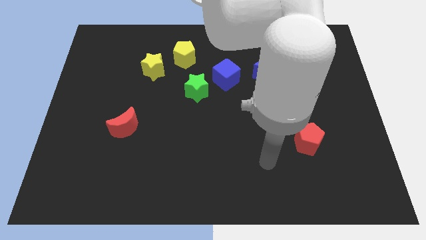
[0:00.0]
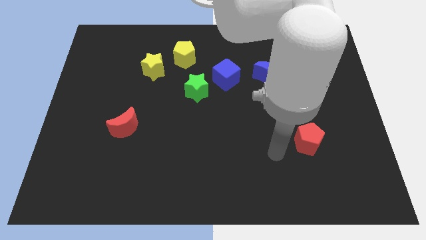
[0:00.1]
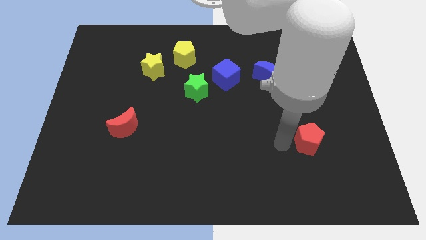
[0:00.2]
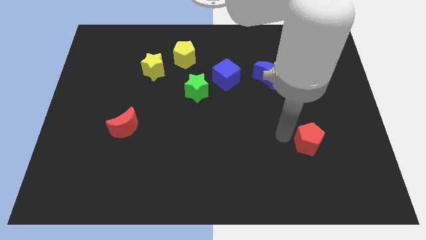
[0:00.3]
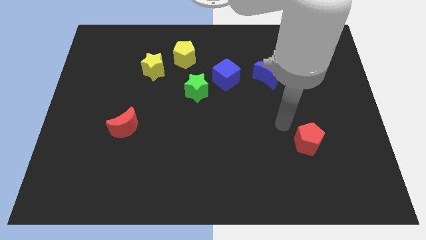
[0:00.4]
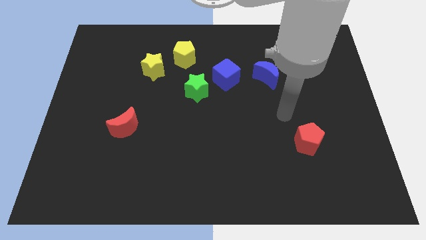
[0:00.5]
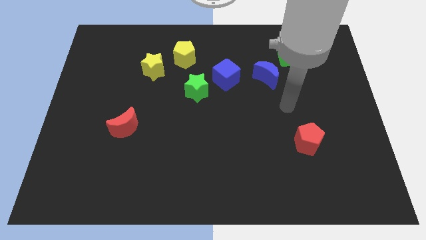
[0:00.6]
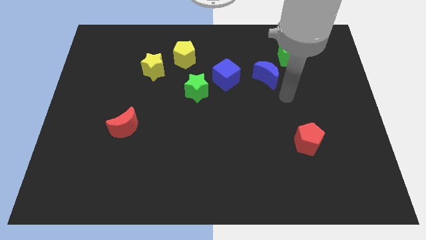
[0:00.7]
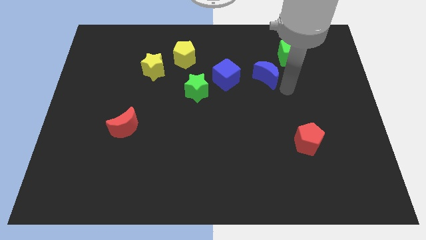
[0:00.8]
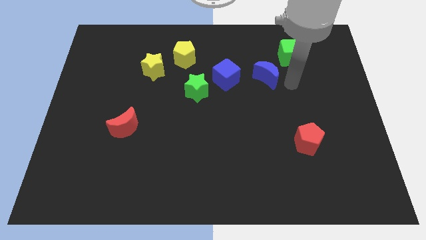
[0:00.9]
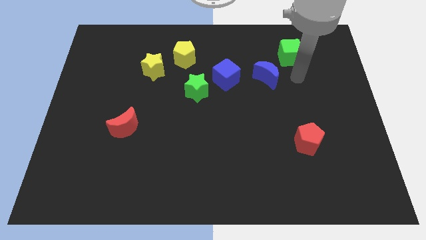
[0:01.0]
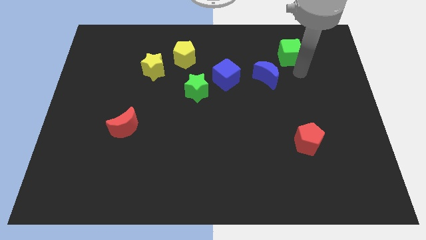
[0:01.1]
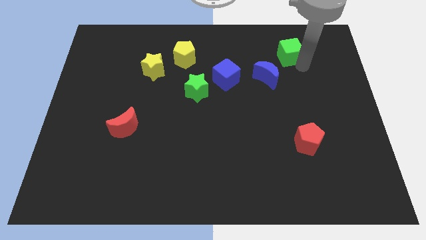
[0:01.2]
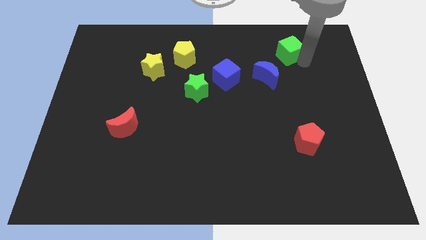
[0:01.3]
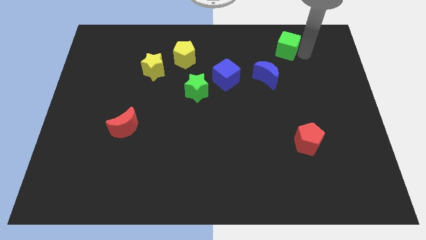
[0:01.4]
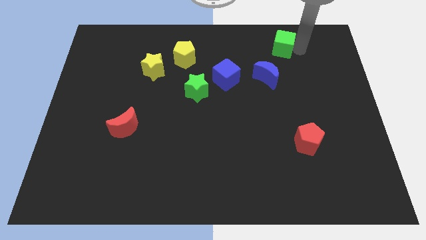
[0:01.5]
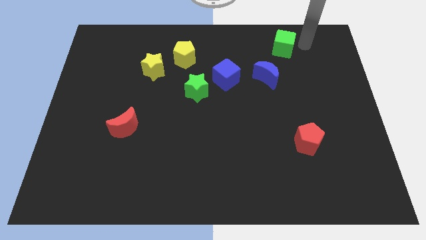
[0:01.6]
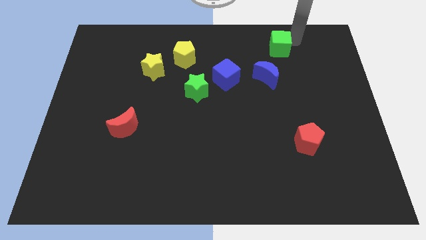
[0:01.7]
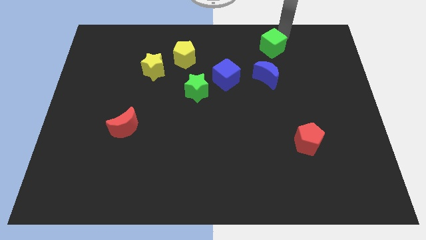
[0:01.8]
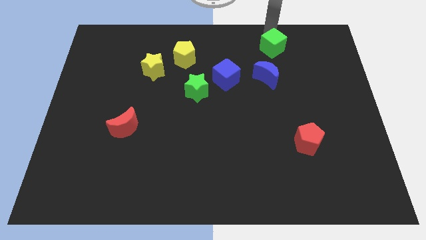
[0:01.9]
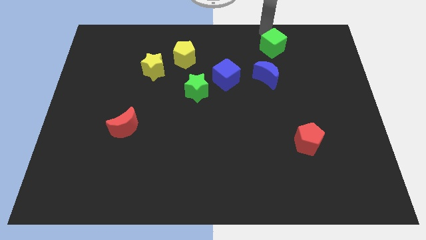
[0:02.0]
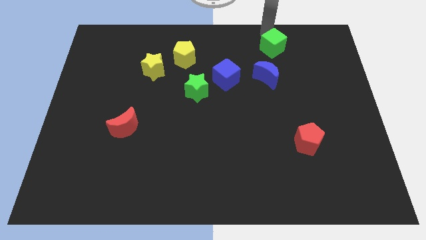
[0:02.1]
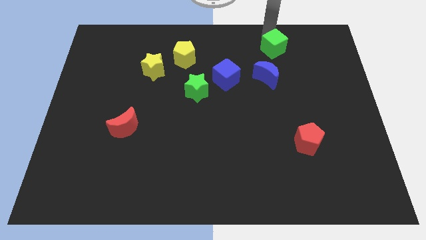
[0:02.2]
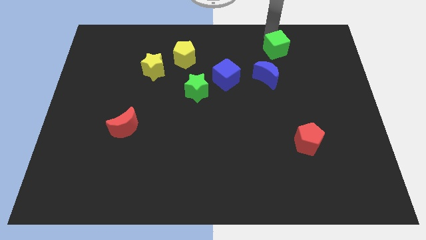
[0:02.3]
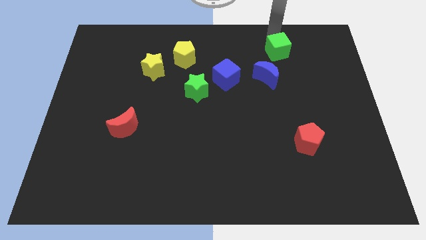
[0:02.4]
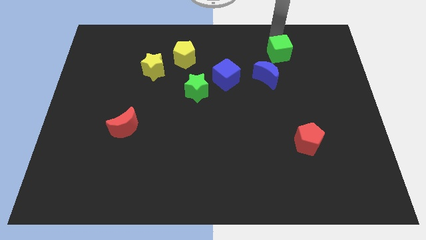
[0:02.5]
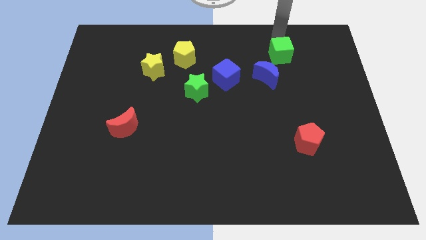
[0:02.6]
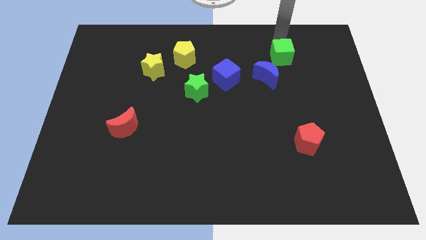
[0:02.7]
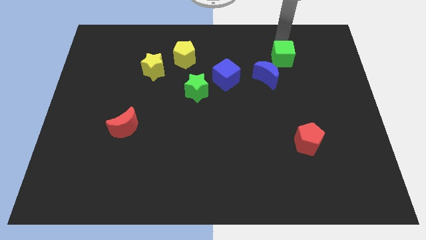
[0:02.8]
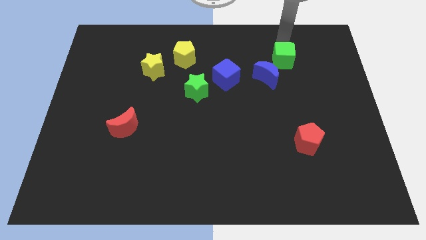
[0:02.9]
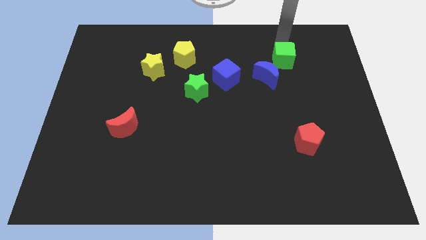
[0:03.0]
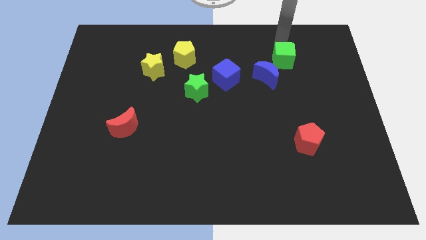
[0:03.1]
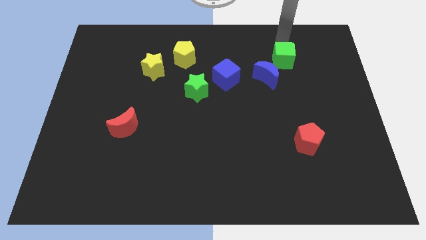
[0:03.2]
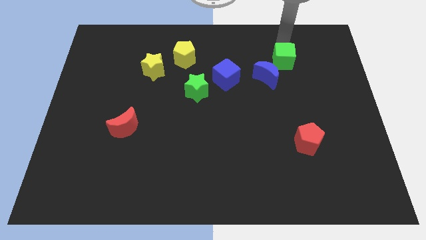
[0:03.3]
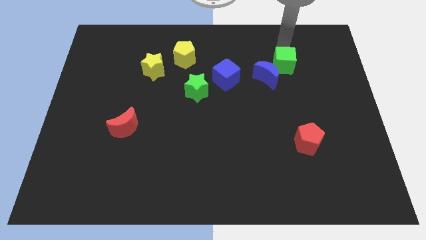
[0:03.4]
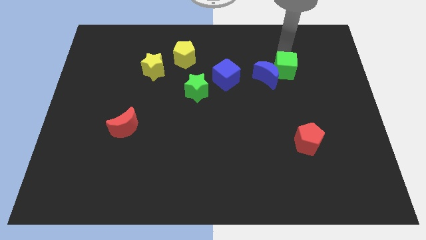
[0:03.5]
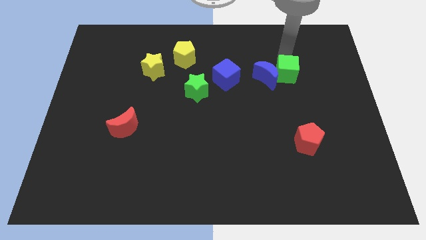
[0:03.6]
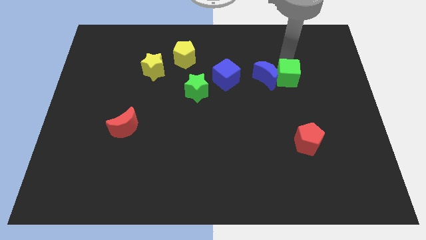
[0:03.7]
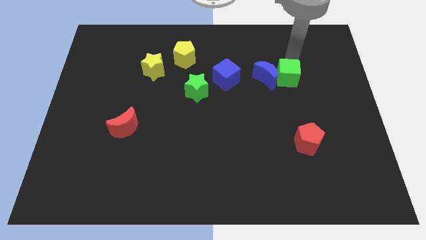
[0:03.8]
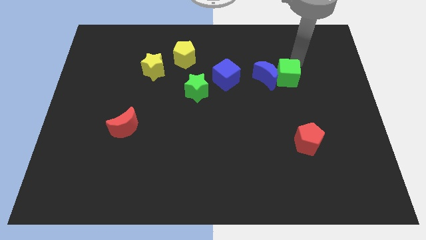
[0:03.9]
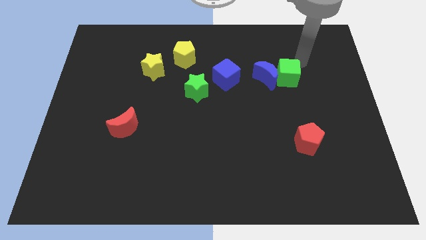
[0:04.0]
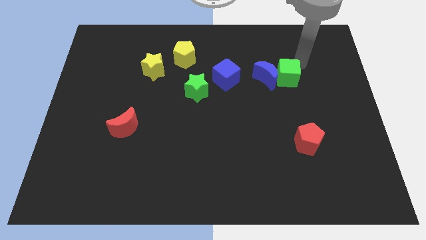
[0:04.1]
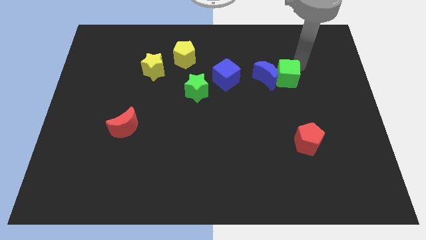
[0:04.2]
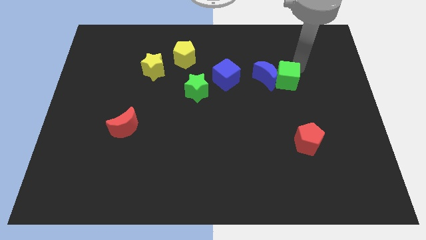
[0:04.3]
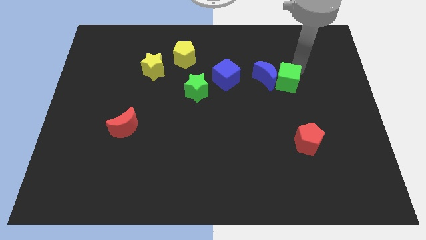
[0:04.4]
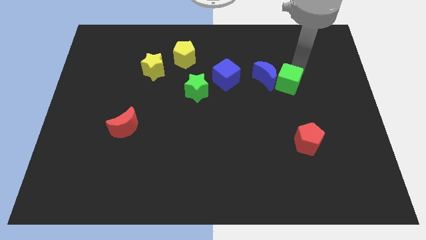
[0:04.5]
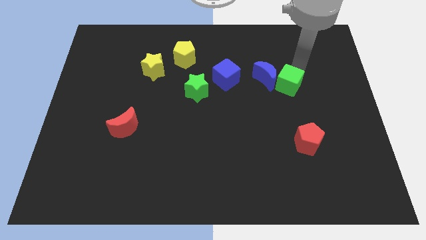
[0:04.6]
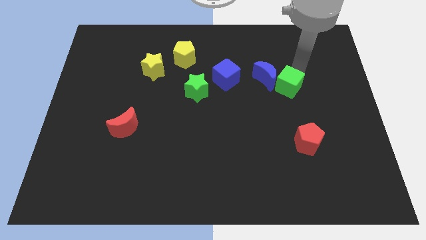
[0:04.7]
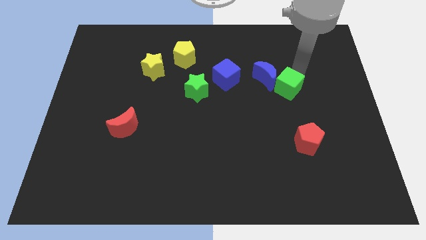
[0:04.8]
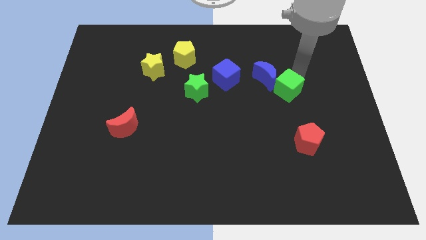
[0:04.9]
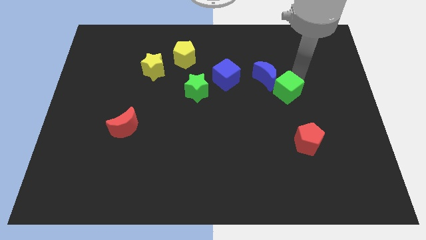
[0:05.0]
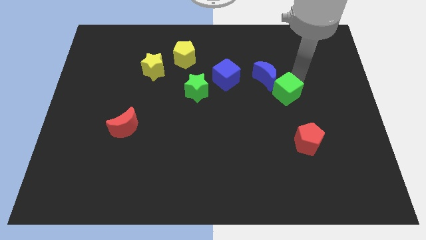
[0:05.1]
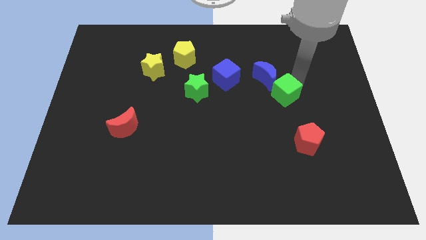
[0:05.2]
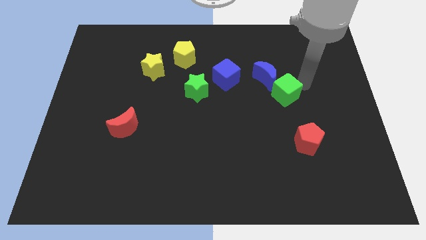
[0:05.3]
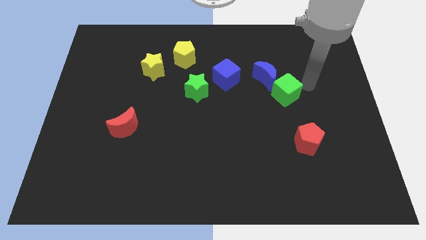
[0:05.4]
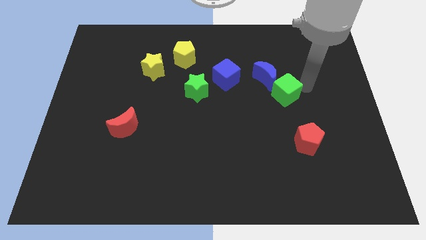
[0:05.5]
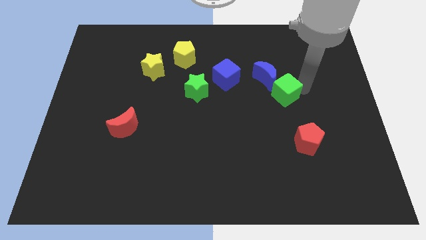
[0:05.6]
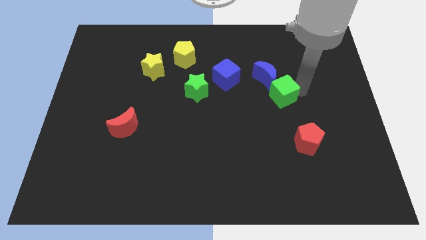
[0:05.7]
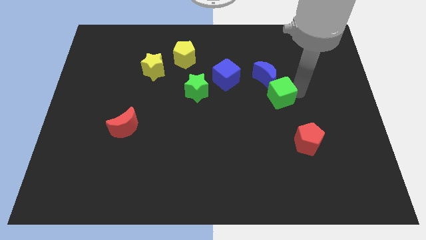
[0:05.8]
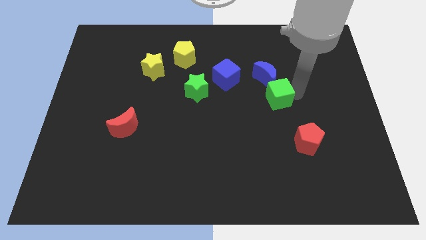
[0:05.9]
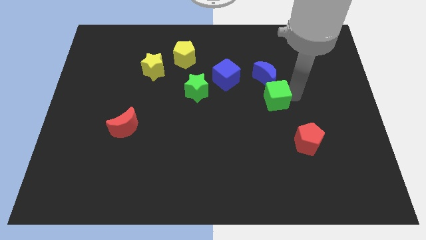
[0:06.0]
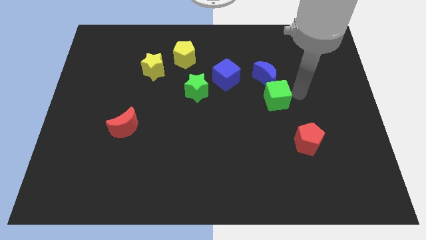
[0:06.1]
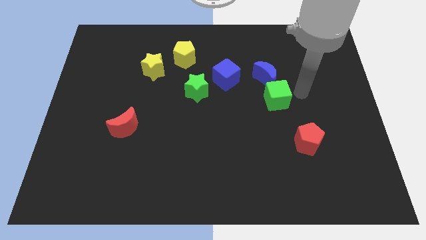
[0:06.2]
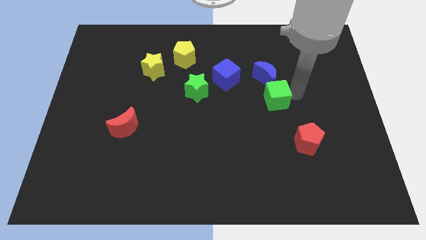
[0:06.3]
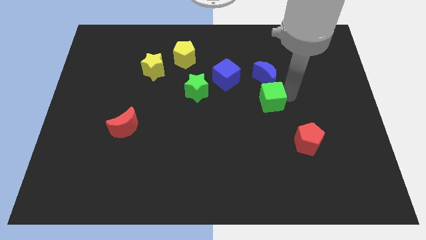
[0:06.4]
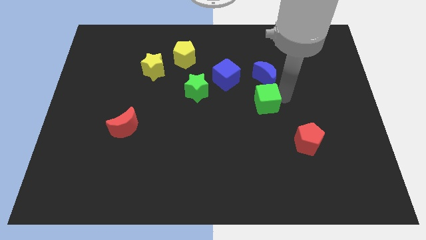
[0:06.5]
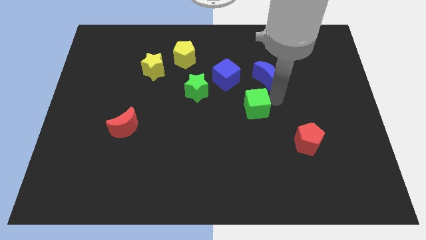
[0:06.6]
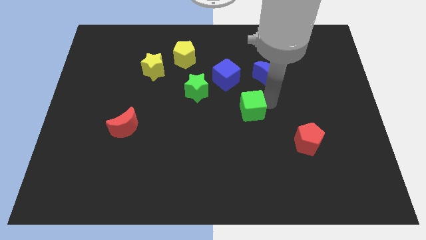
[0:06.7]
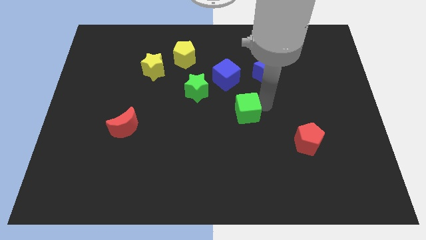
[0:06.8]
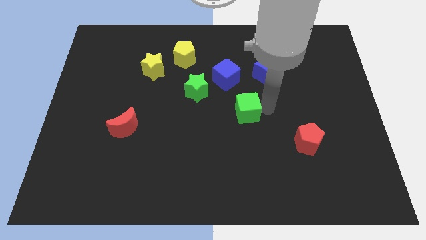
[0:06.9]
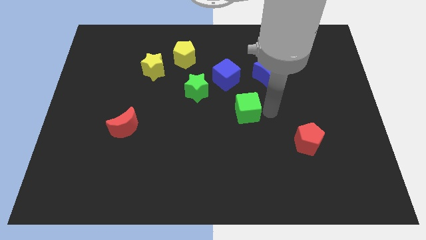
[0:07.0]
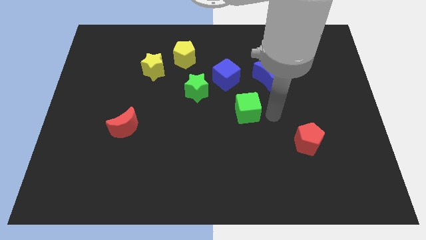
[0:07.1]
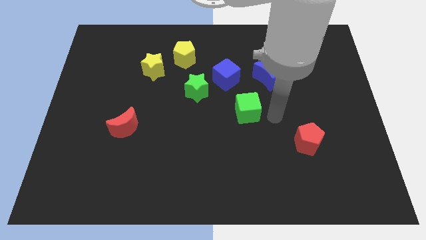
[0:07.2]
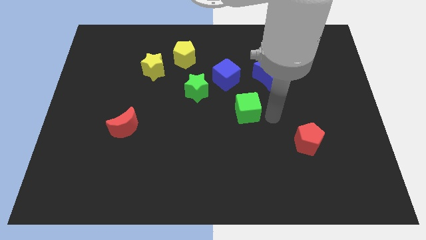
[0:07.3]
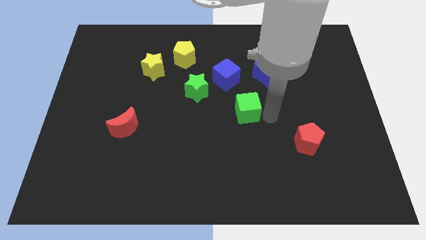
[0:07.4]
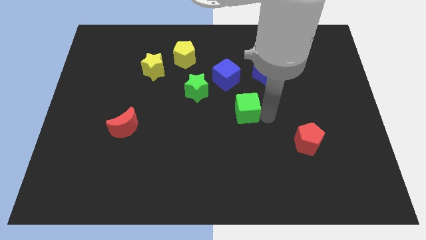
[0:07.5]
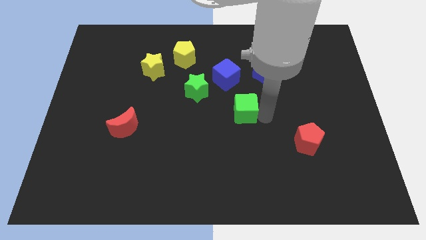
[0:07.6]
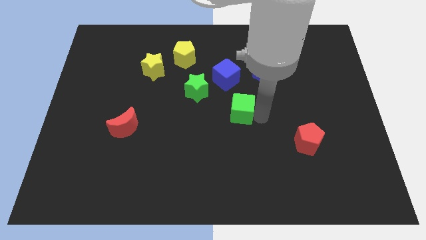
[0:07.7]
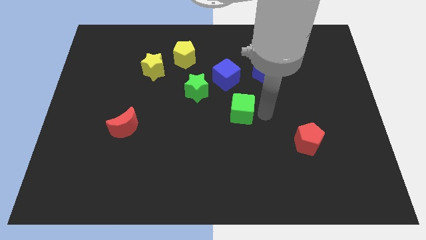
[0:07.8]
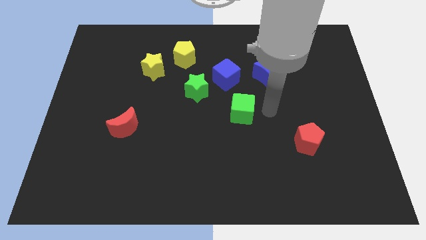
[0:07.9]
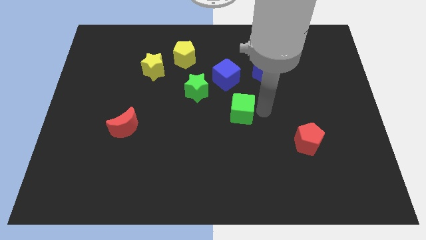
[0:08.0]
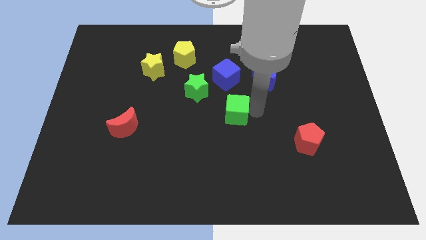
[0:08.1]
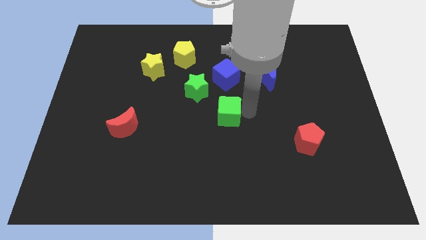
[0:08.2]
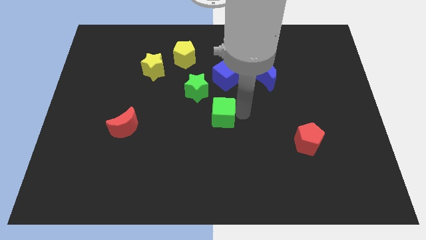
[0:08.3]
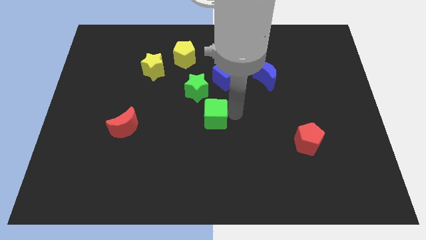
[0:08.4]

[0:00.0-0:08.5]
put the green cube to the bottom side of the green star
